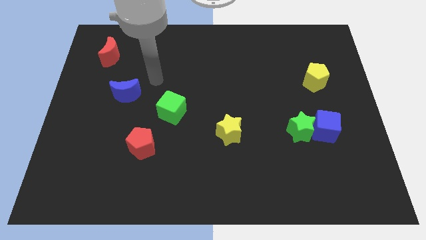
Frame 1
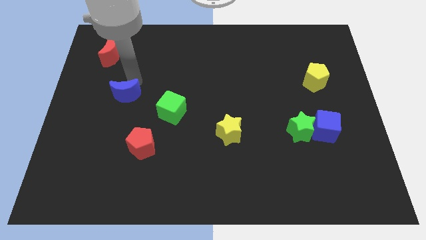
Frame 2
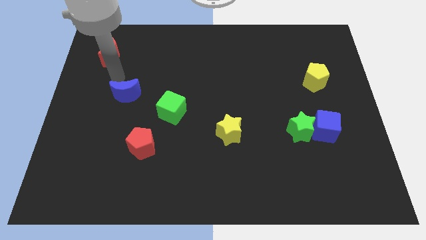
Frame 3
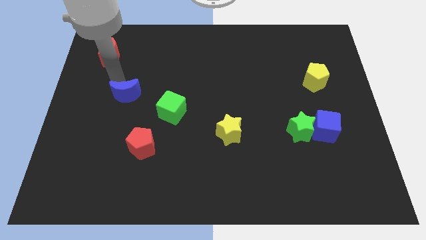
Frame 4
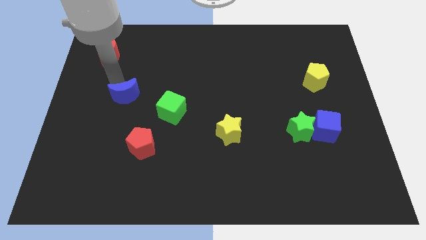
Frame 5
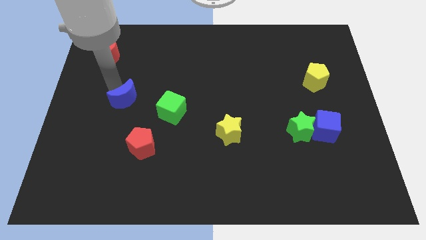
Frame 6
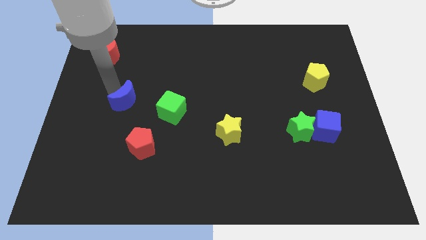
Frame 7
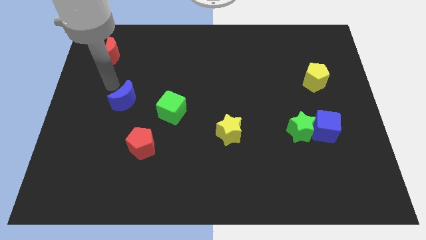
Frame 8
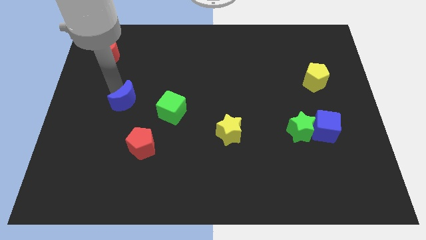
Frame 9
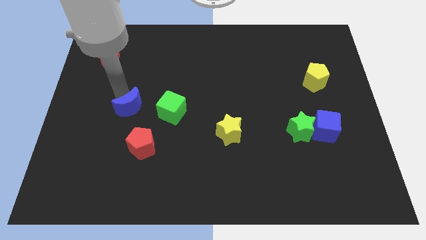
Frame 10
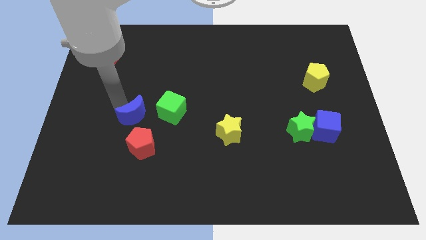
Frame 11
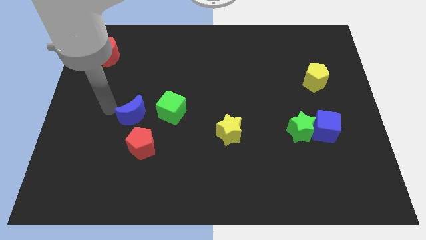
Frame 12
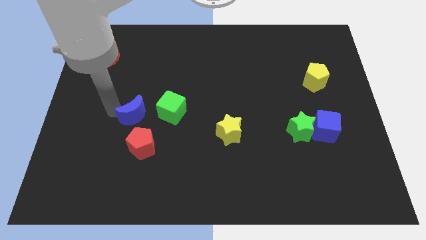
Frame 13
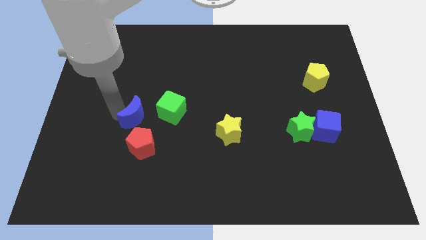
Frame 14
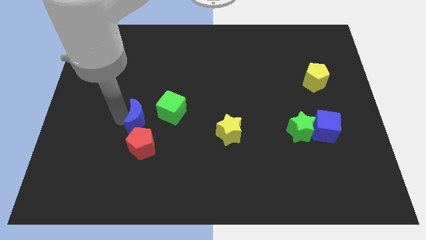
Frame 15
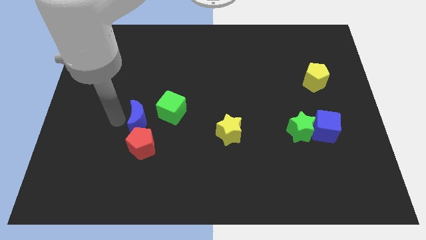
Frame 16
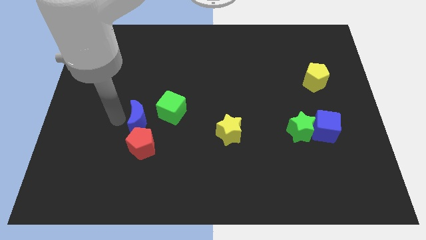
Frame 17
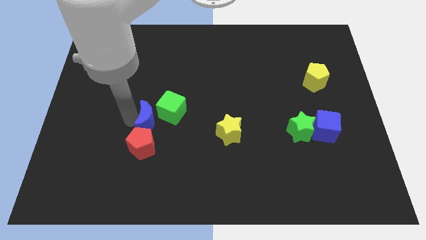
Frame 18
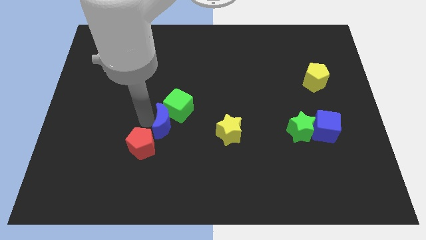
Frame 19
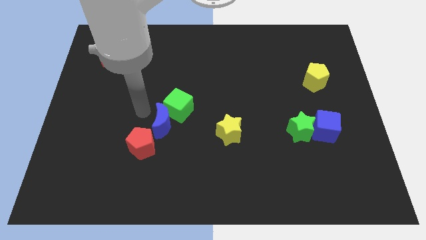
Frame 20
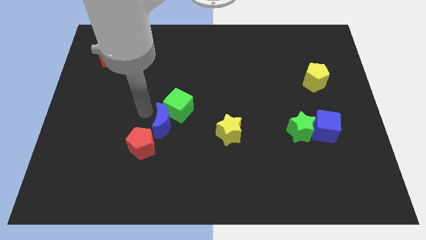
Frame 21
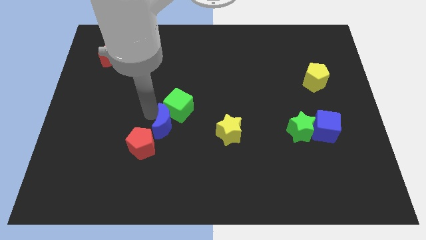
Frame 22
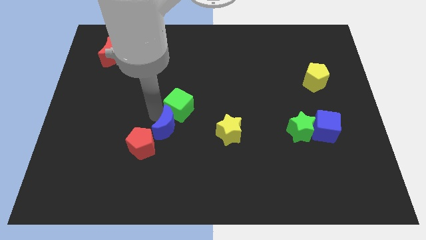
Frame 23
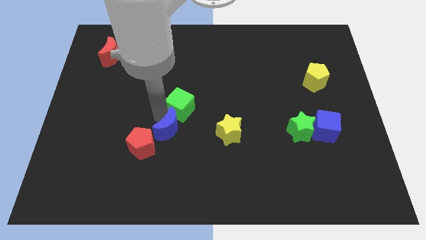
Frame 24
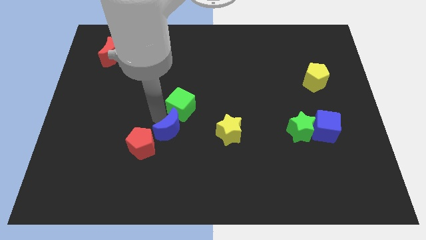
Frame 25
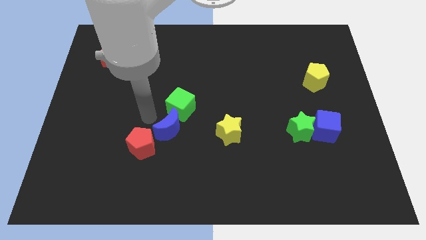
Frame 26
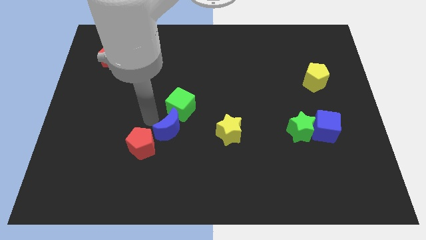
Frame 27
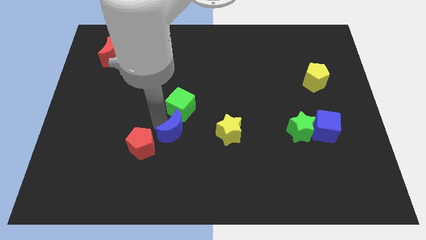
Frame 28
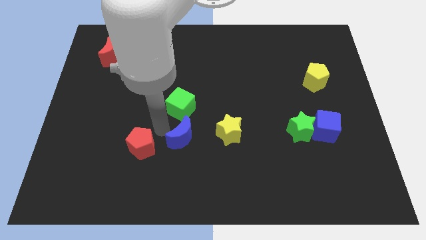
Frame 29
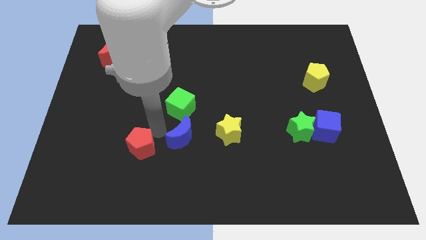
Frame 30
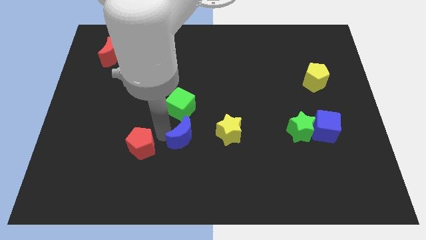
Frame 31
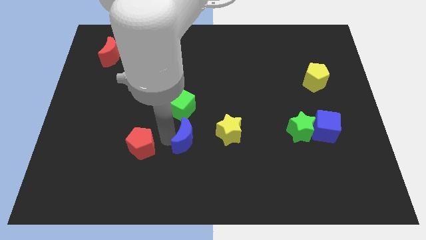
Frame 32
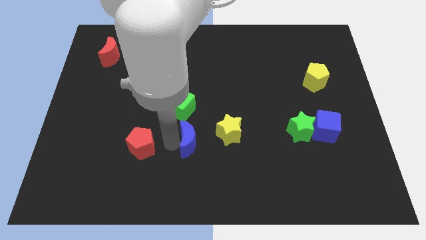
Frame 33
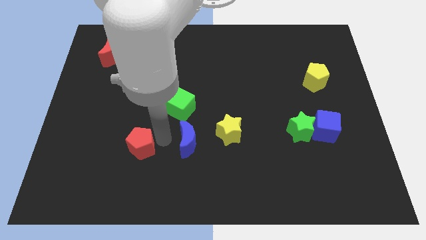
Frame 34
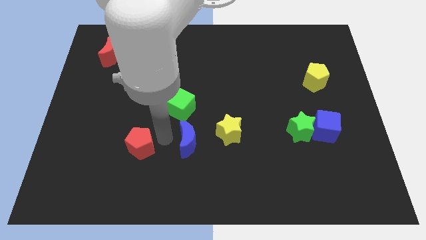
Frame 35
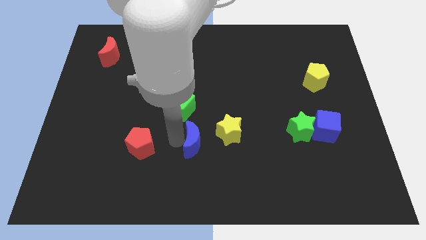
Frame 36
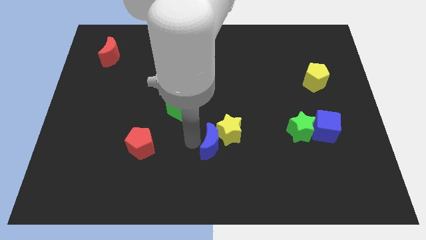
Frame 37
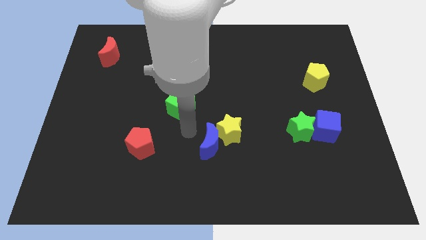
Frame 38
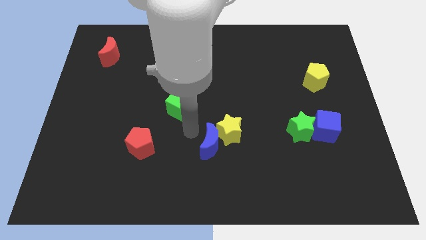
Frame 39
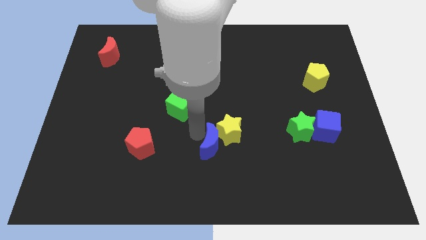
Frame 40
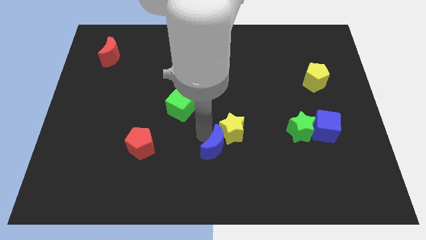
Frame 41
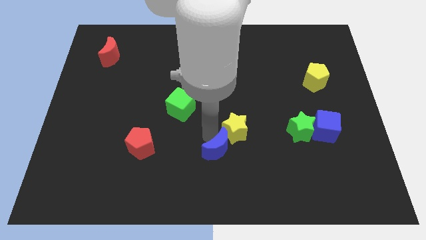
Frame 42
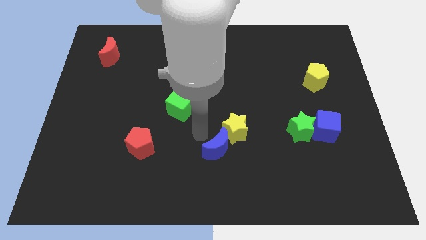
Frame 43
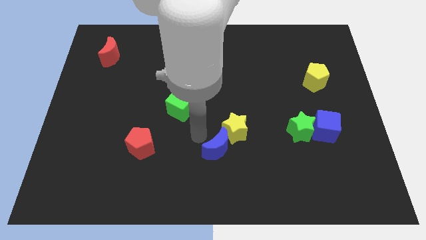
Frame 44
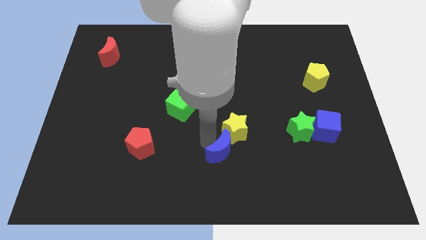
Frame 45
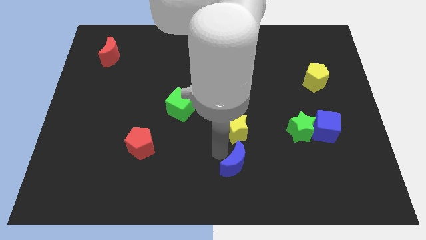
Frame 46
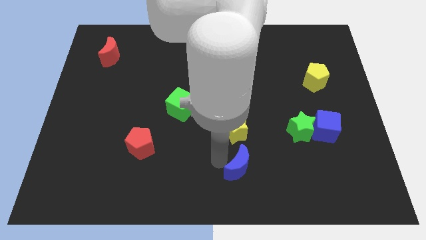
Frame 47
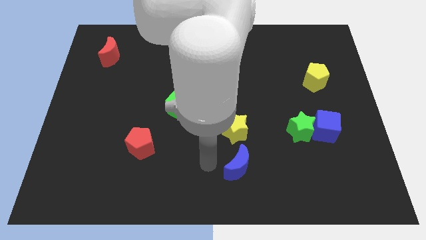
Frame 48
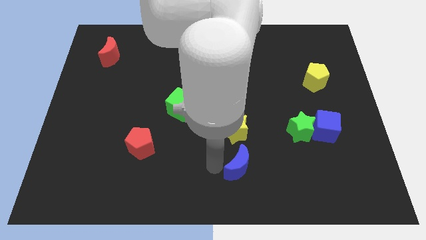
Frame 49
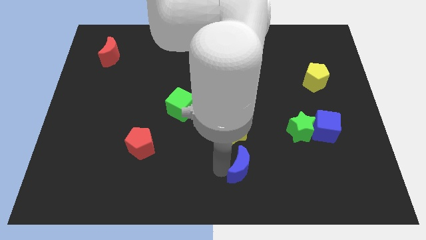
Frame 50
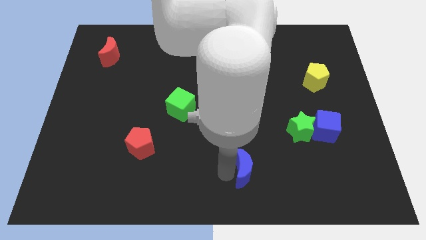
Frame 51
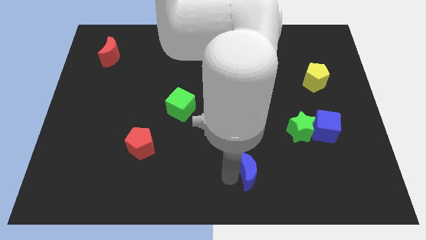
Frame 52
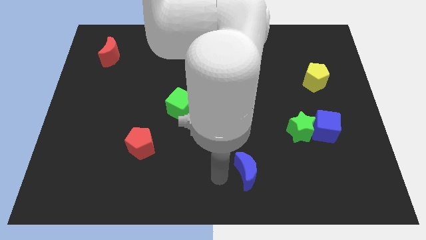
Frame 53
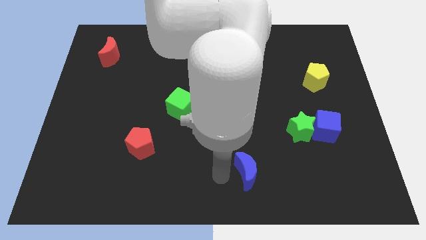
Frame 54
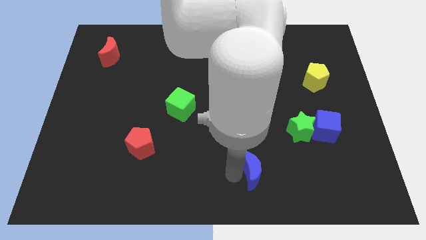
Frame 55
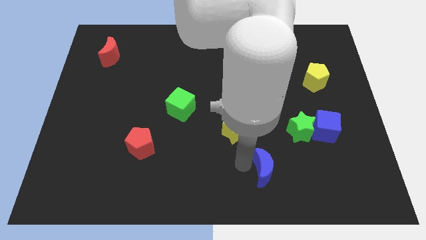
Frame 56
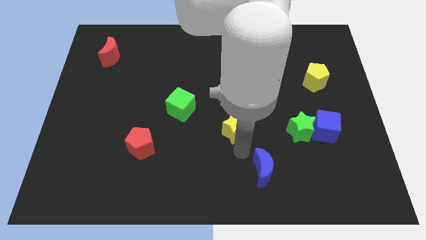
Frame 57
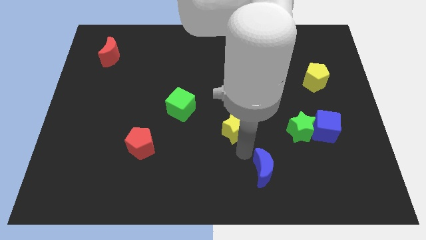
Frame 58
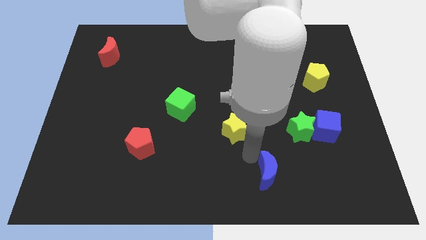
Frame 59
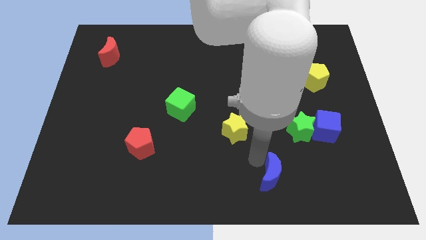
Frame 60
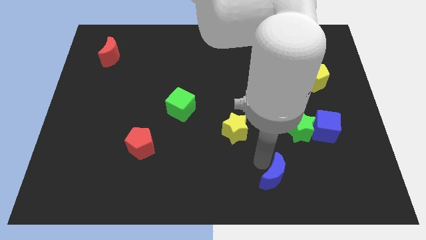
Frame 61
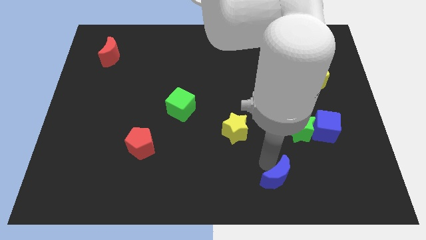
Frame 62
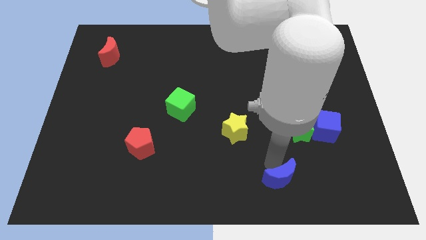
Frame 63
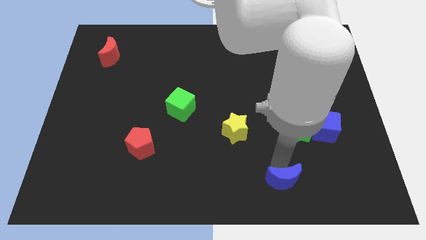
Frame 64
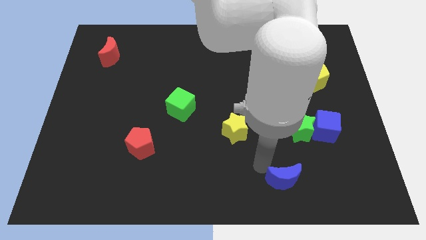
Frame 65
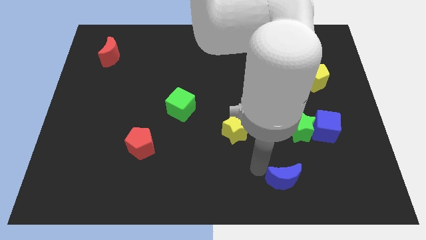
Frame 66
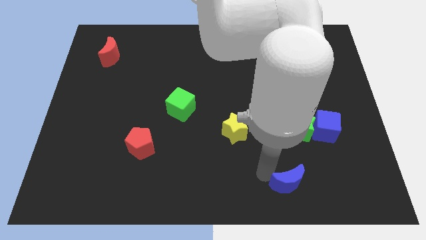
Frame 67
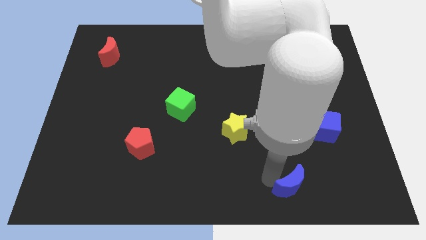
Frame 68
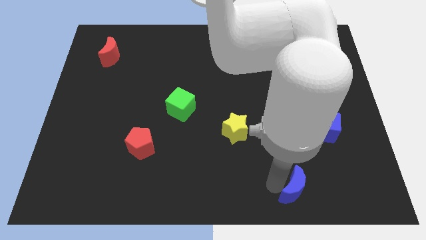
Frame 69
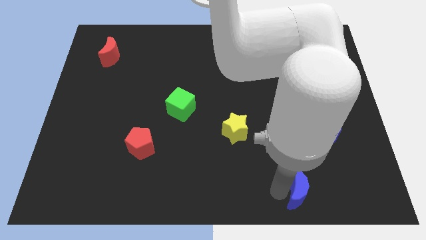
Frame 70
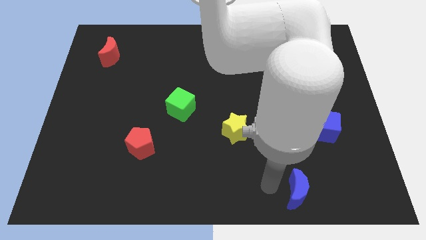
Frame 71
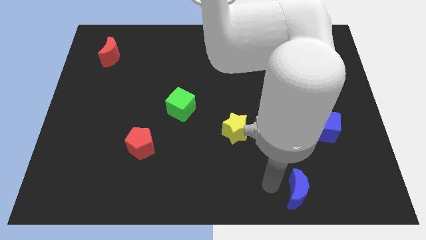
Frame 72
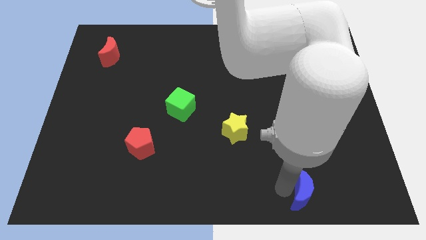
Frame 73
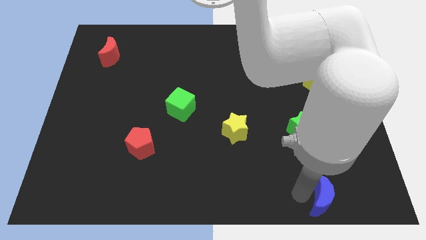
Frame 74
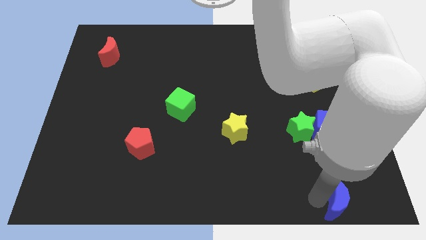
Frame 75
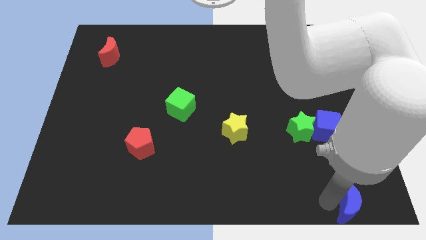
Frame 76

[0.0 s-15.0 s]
slide the blue moon to the bottom right corner

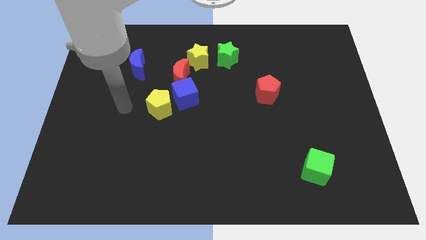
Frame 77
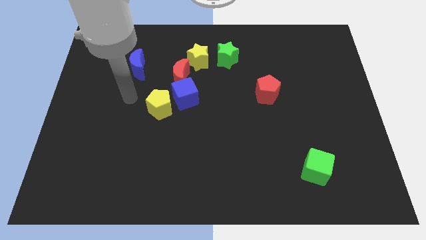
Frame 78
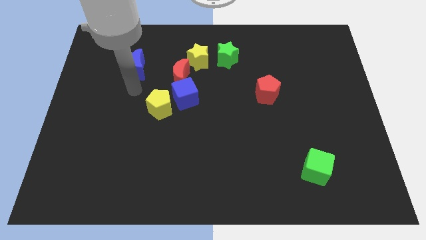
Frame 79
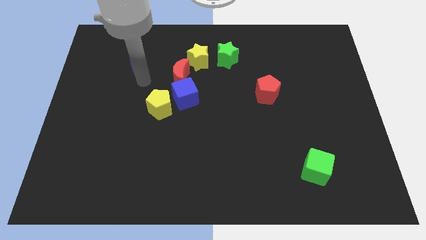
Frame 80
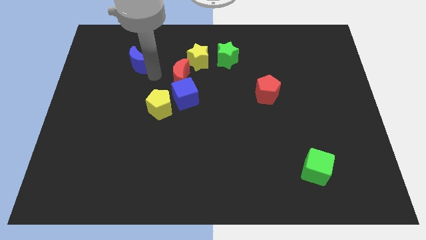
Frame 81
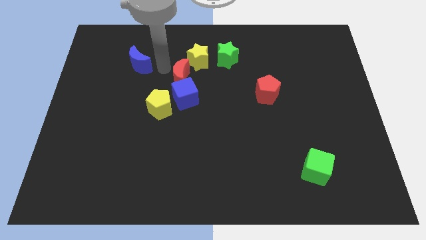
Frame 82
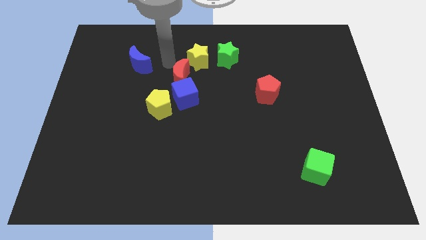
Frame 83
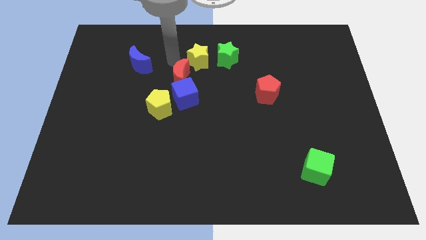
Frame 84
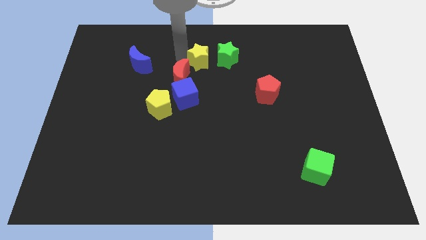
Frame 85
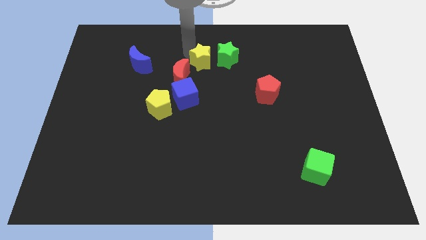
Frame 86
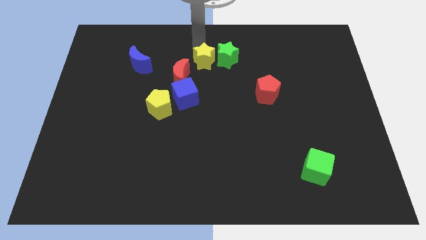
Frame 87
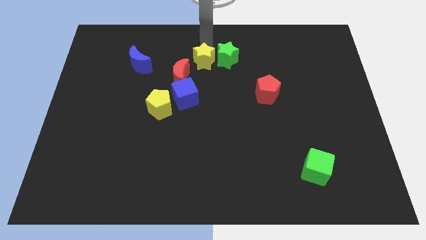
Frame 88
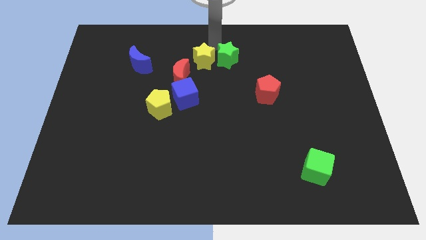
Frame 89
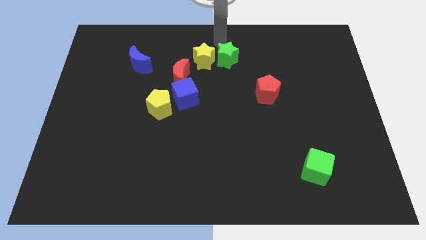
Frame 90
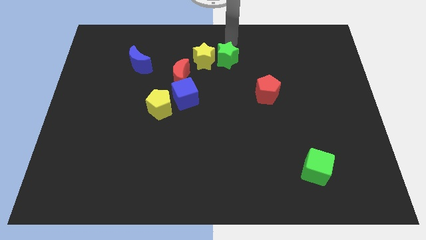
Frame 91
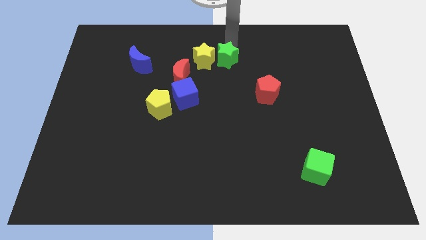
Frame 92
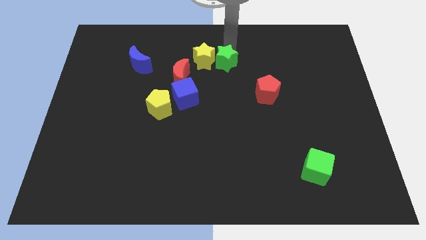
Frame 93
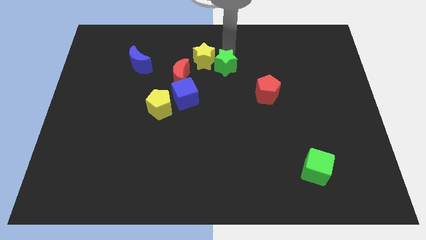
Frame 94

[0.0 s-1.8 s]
push the green star to the middle
